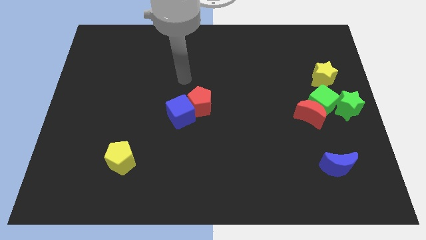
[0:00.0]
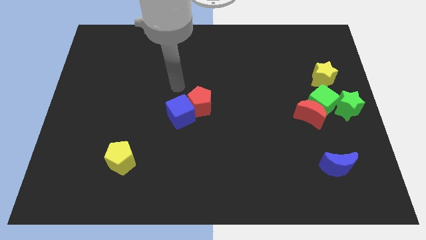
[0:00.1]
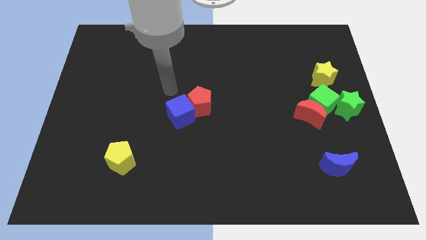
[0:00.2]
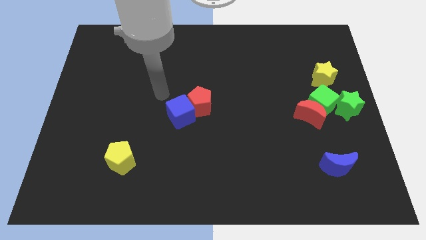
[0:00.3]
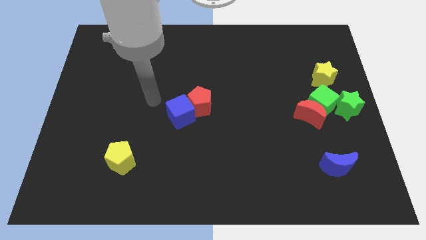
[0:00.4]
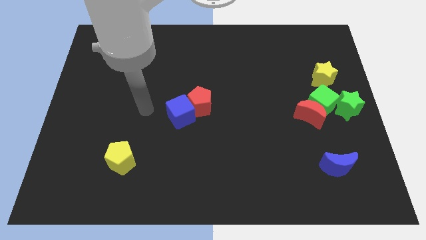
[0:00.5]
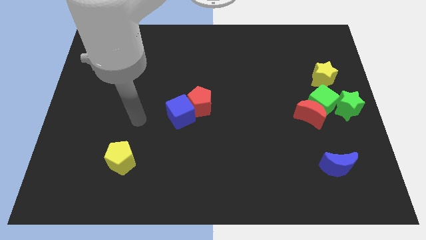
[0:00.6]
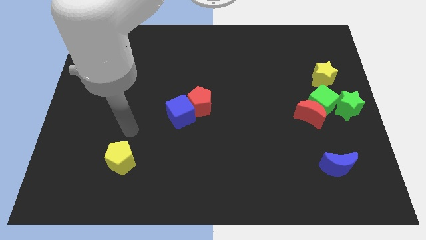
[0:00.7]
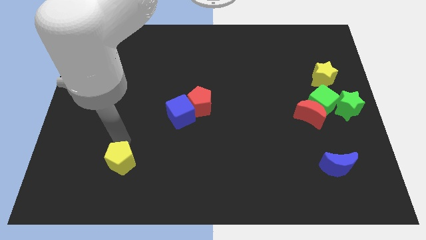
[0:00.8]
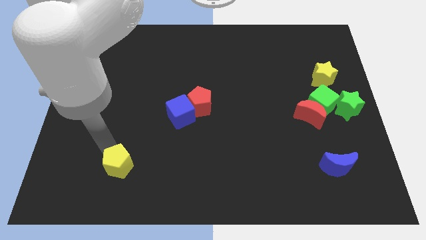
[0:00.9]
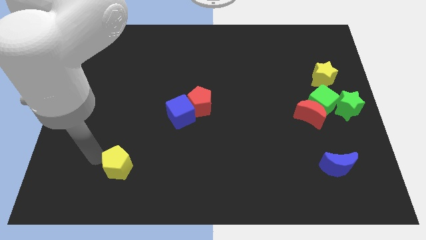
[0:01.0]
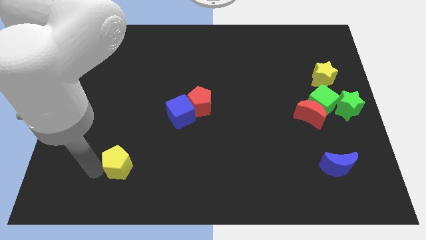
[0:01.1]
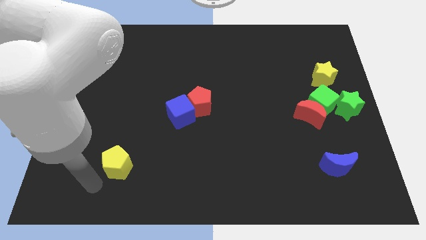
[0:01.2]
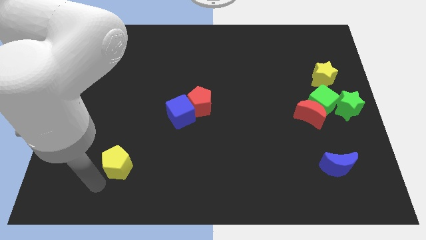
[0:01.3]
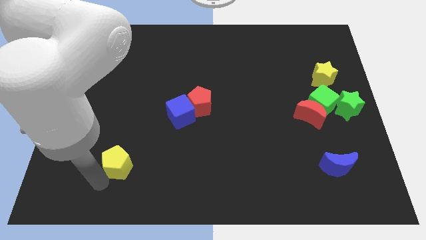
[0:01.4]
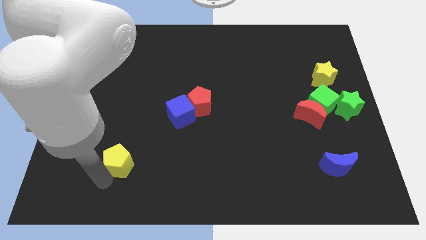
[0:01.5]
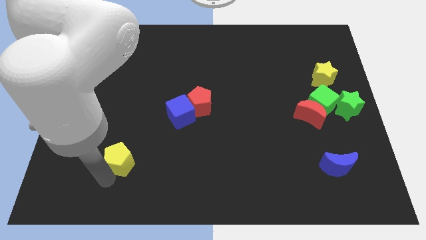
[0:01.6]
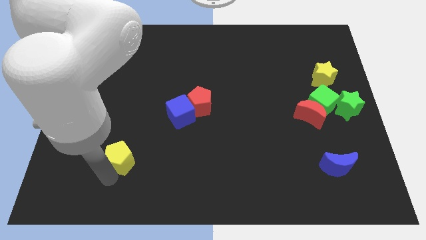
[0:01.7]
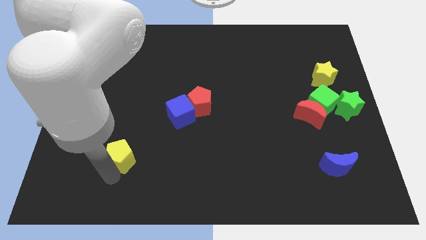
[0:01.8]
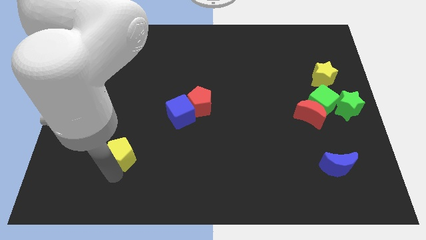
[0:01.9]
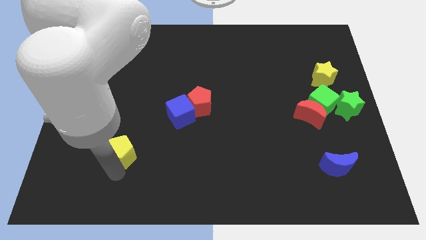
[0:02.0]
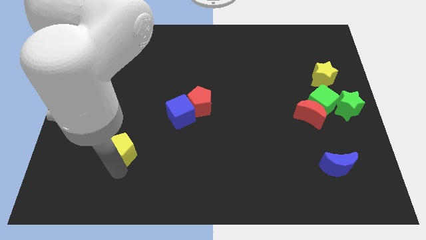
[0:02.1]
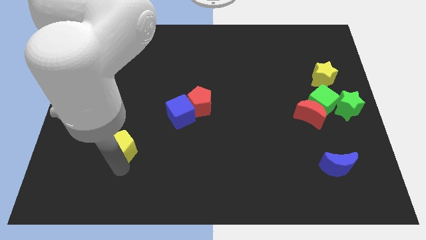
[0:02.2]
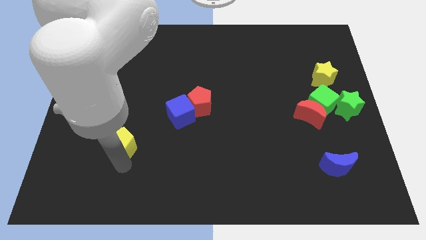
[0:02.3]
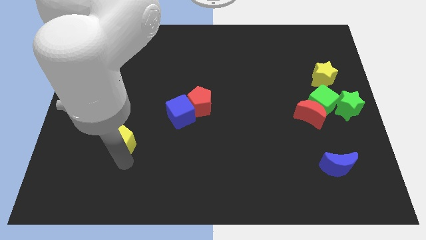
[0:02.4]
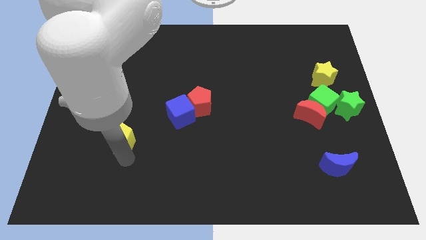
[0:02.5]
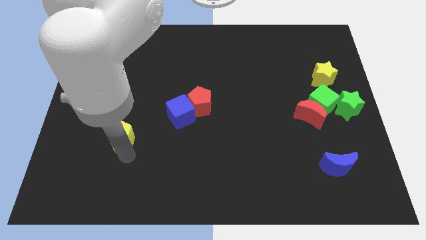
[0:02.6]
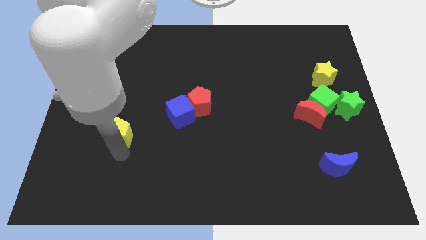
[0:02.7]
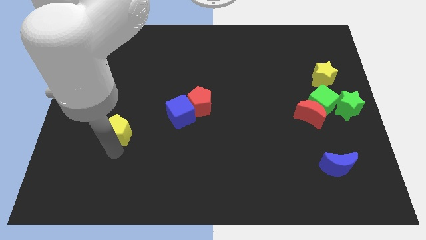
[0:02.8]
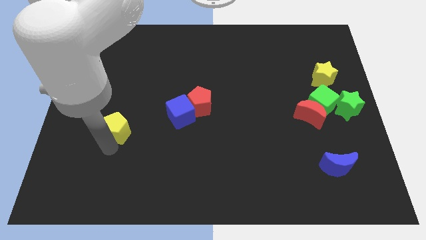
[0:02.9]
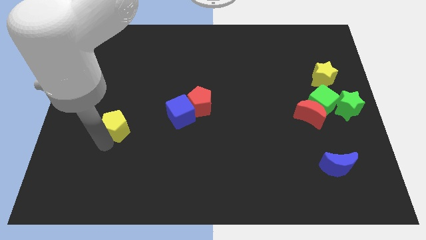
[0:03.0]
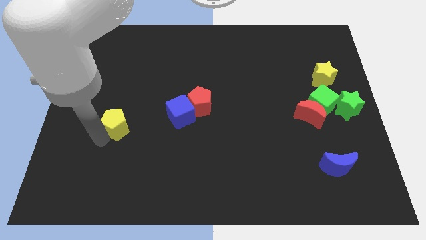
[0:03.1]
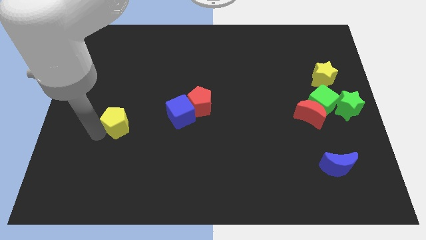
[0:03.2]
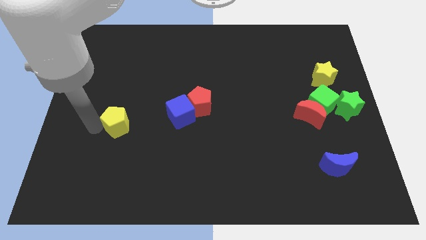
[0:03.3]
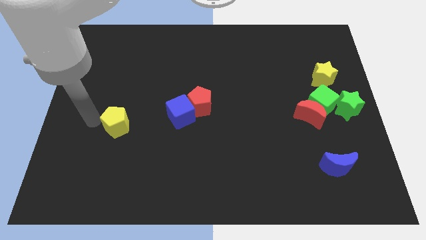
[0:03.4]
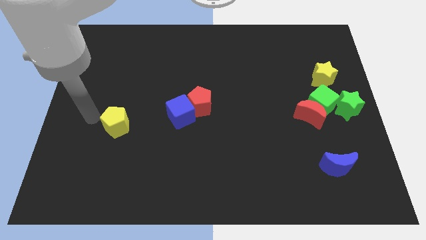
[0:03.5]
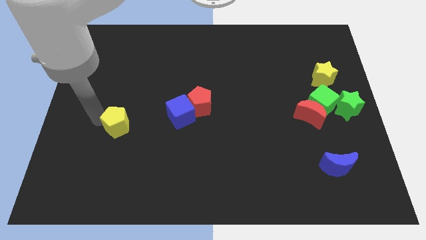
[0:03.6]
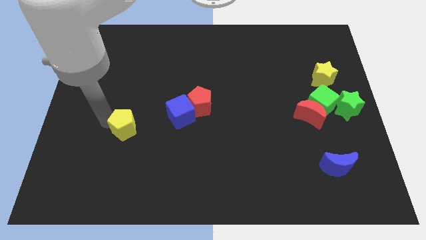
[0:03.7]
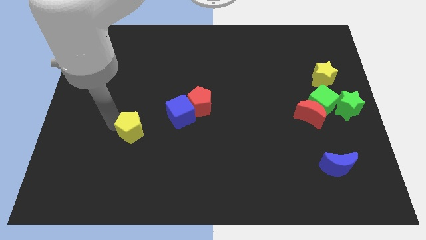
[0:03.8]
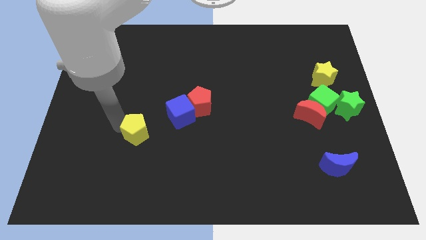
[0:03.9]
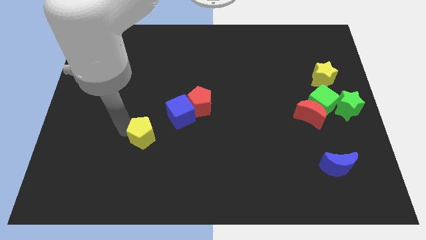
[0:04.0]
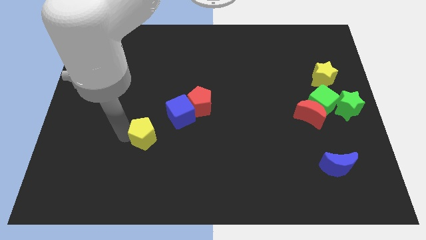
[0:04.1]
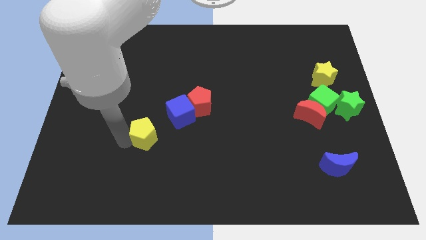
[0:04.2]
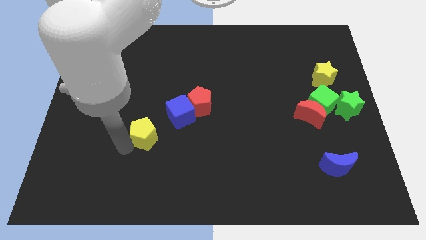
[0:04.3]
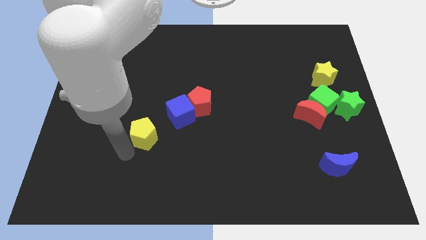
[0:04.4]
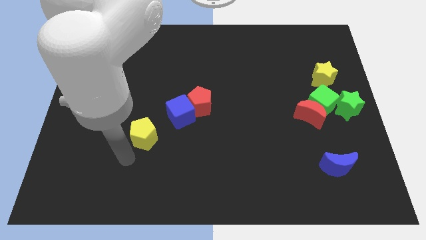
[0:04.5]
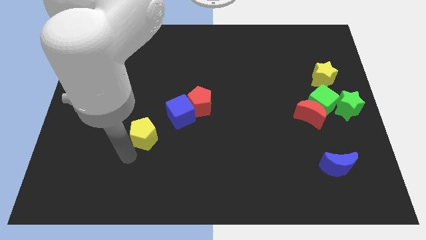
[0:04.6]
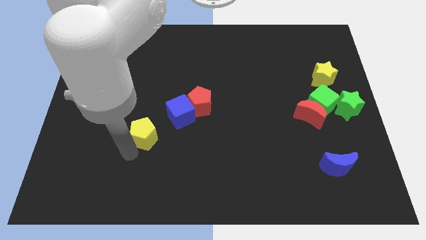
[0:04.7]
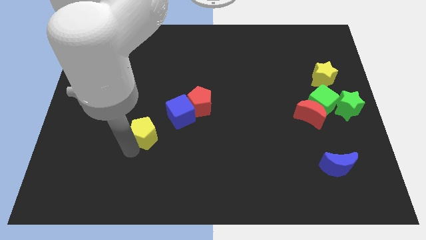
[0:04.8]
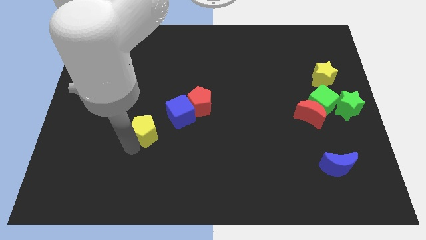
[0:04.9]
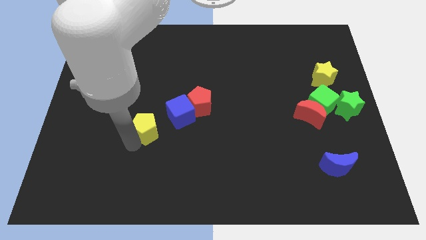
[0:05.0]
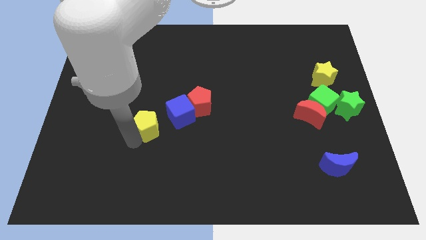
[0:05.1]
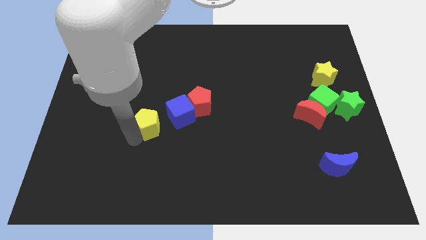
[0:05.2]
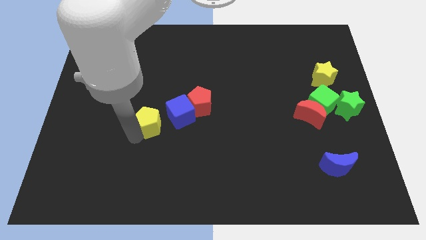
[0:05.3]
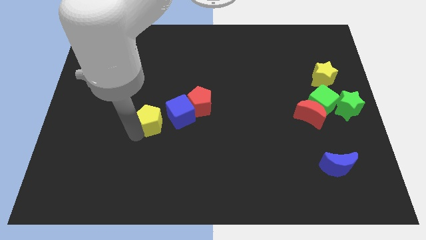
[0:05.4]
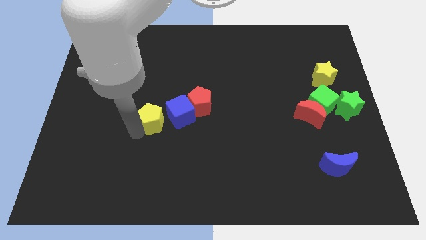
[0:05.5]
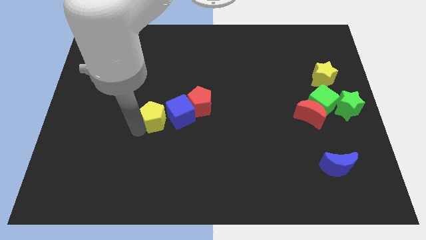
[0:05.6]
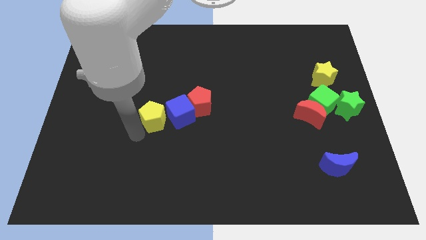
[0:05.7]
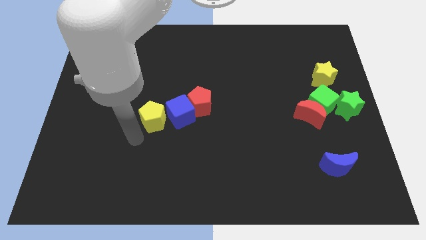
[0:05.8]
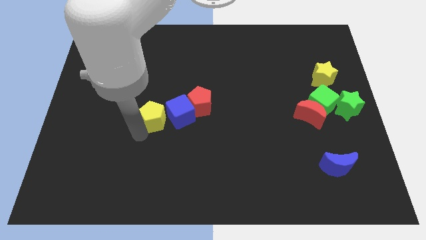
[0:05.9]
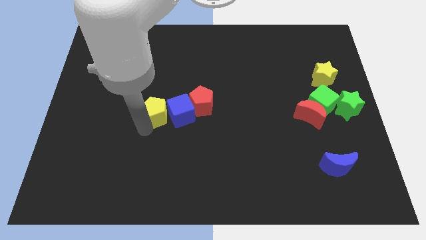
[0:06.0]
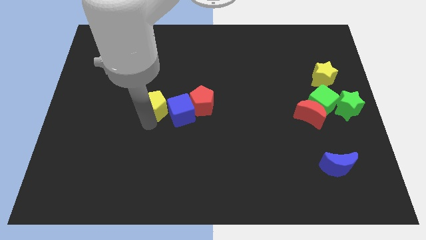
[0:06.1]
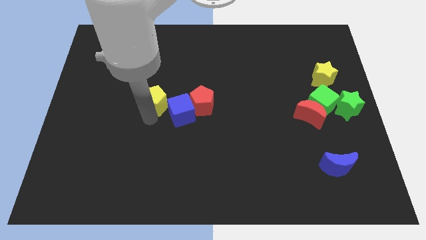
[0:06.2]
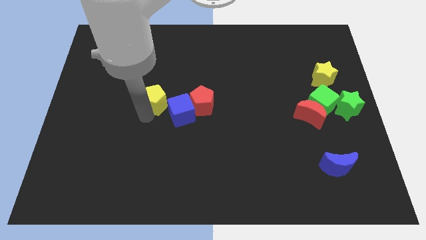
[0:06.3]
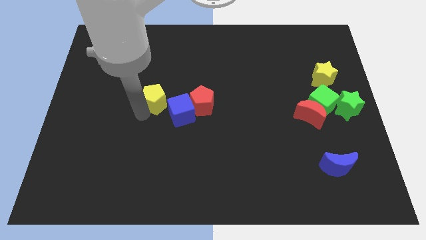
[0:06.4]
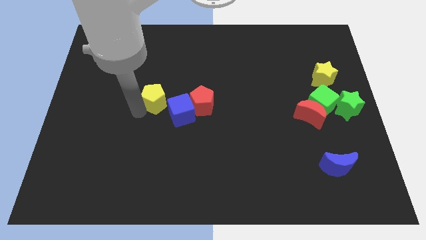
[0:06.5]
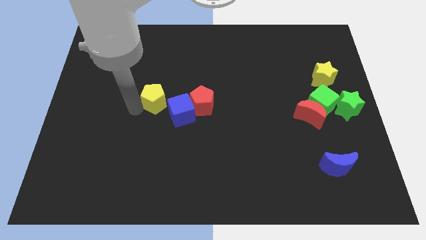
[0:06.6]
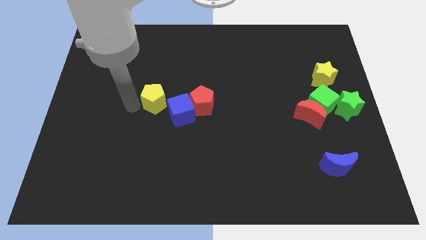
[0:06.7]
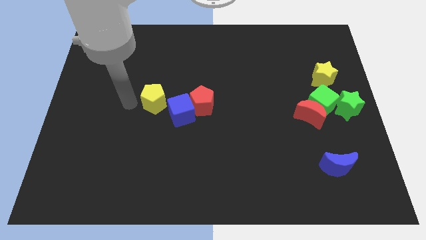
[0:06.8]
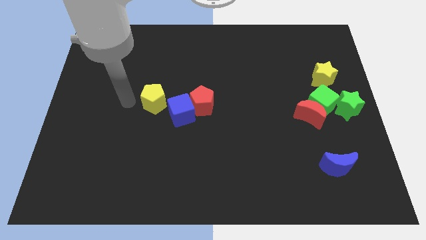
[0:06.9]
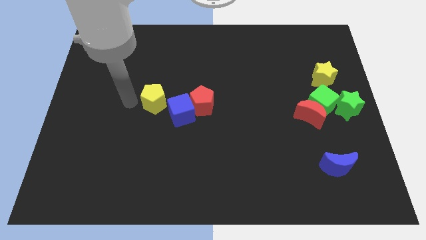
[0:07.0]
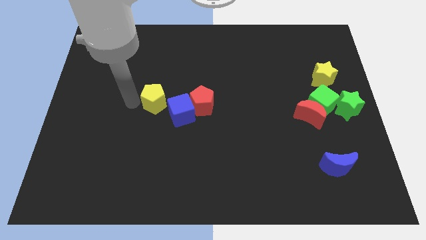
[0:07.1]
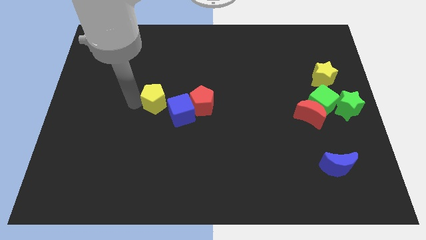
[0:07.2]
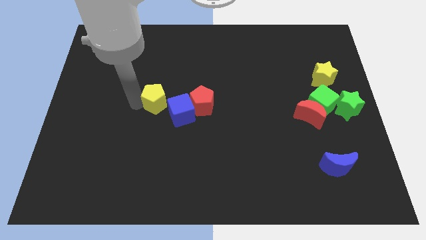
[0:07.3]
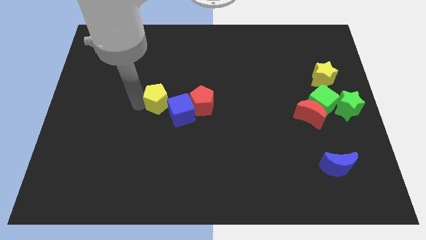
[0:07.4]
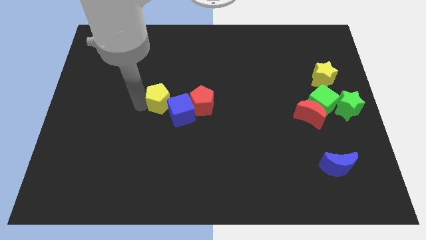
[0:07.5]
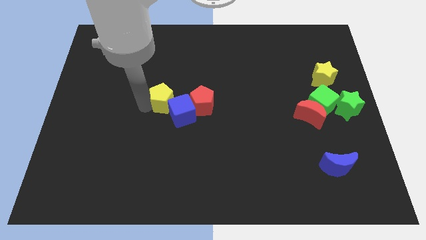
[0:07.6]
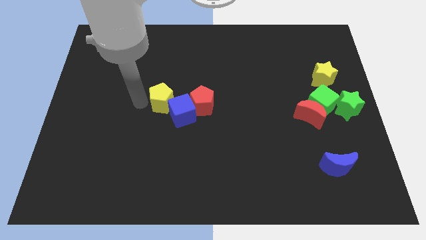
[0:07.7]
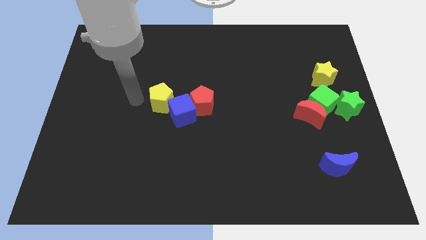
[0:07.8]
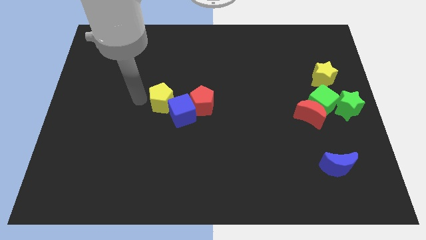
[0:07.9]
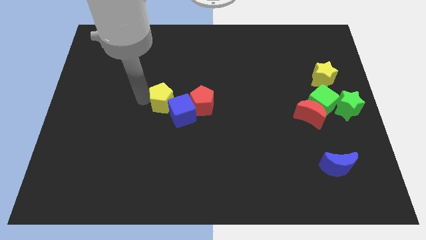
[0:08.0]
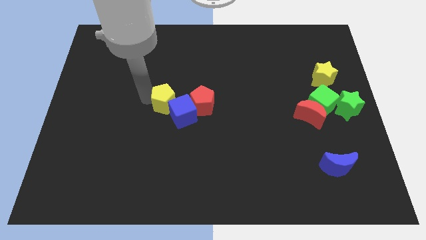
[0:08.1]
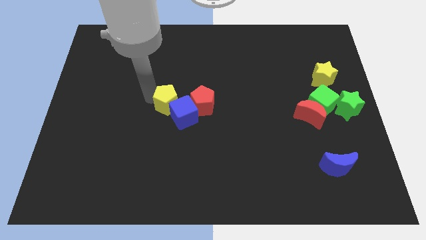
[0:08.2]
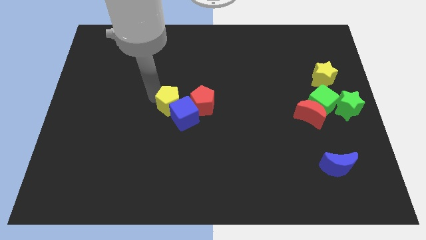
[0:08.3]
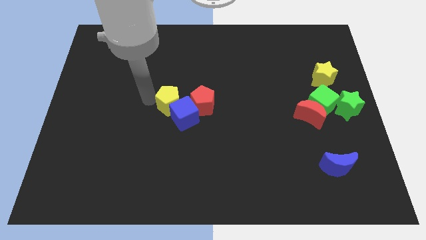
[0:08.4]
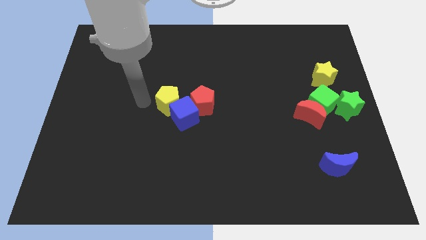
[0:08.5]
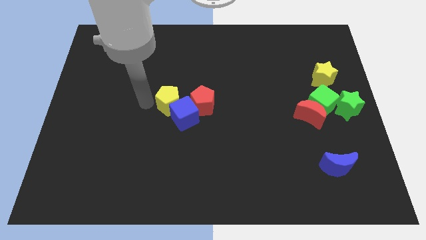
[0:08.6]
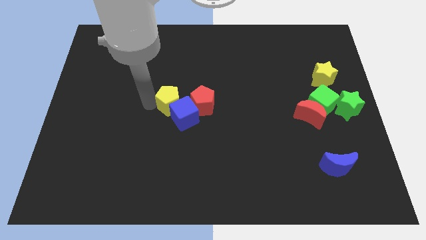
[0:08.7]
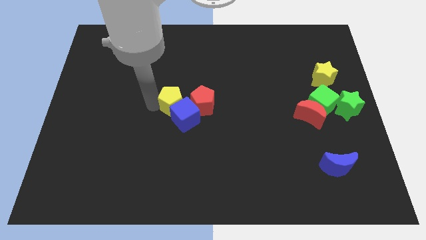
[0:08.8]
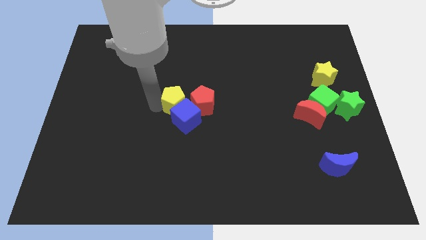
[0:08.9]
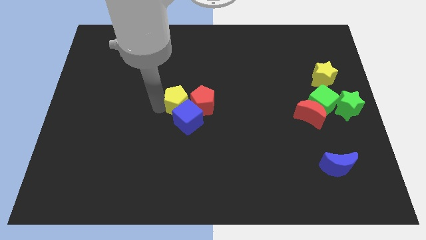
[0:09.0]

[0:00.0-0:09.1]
slide the yellow pentagon towards the red pentagon
